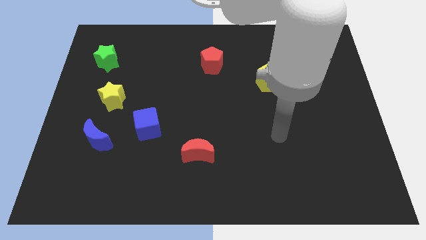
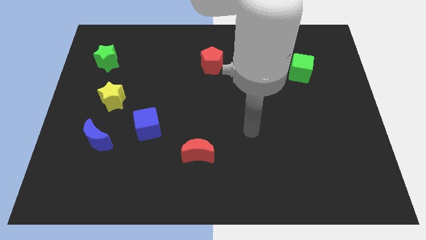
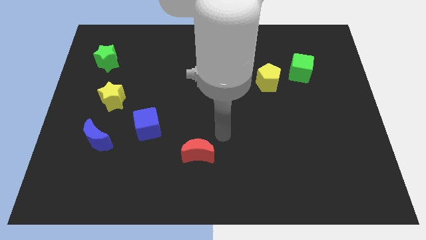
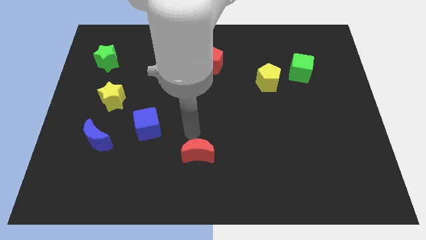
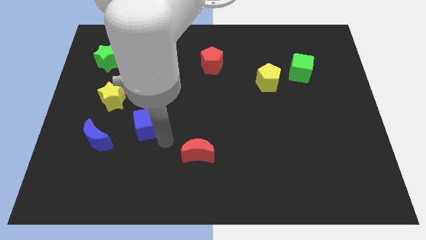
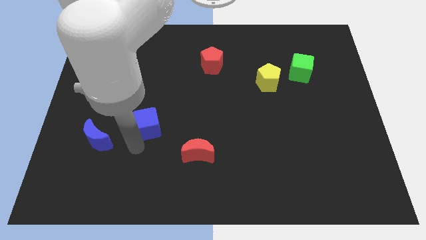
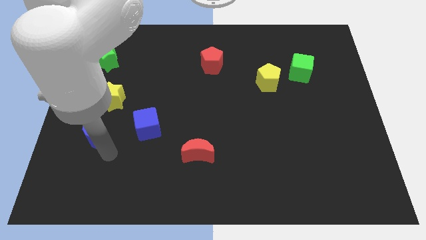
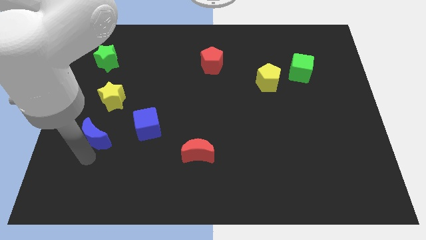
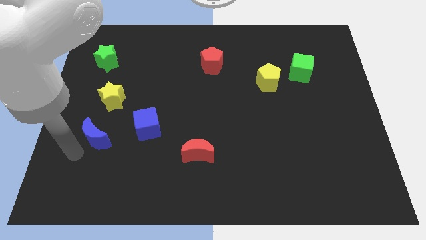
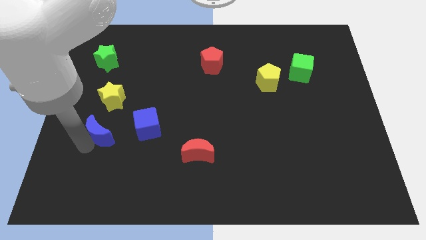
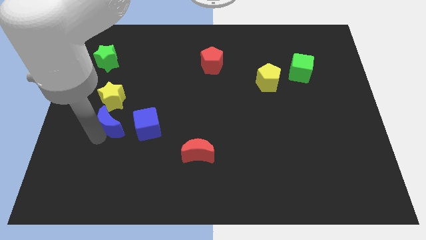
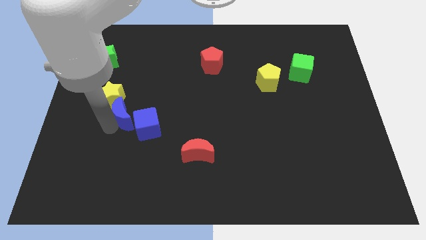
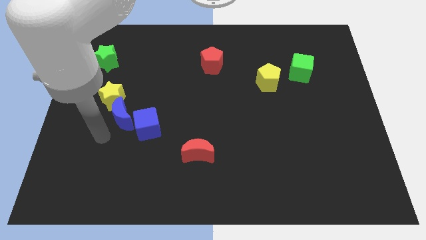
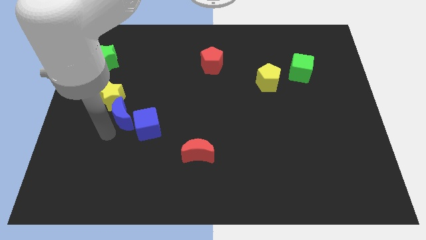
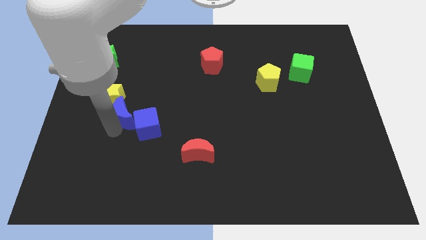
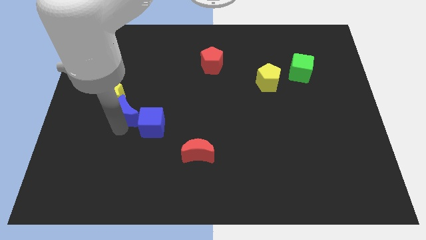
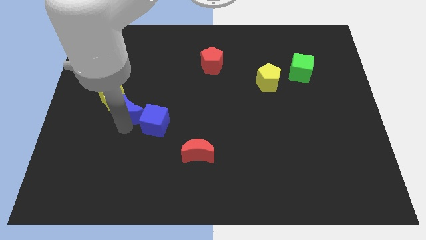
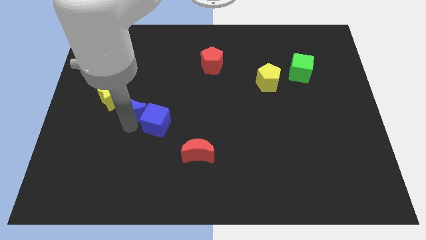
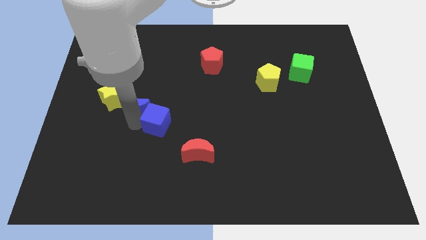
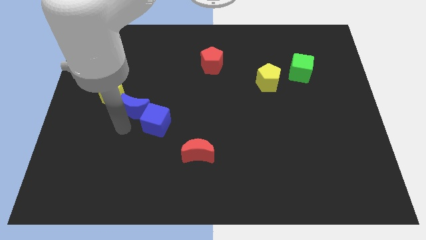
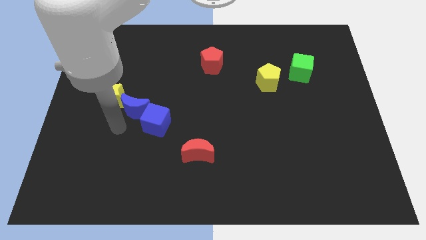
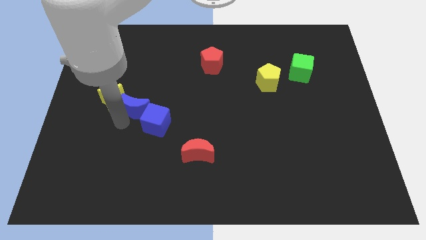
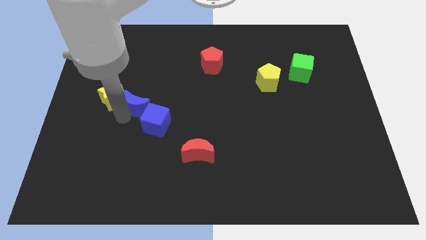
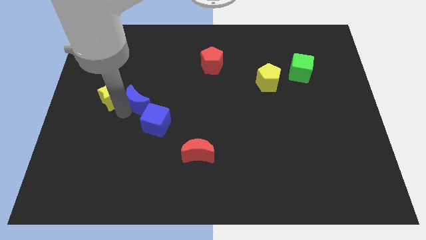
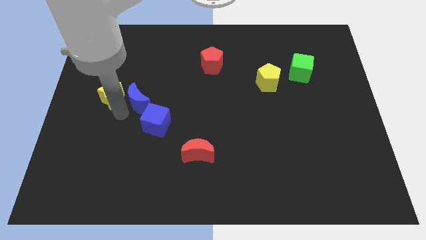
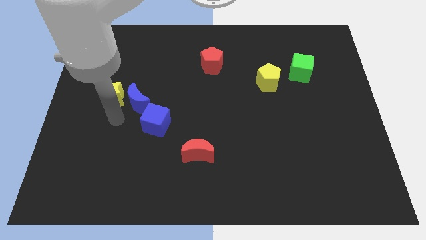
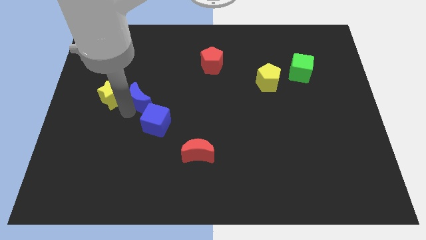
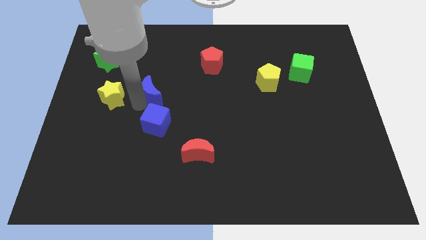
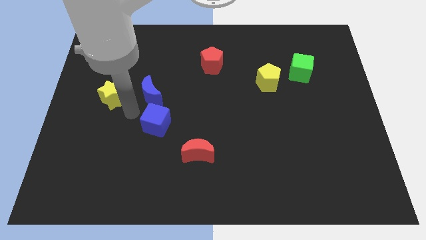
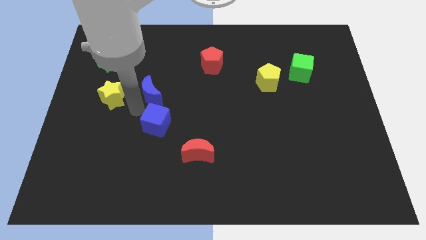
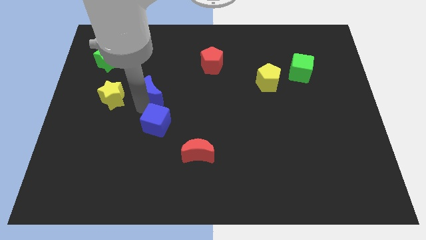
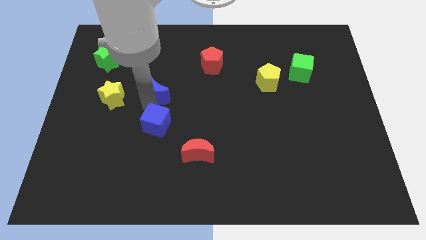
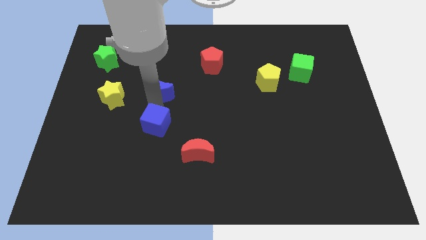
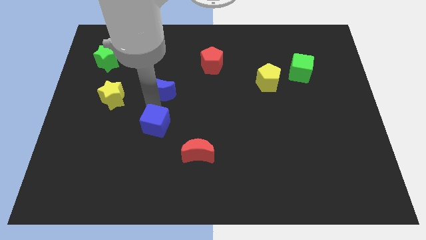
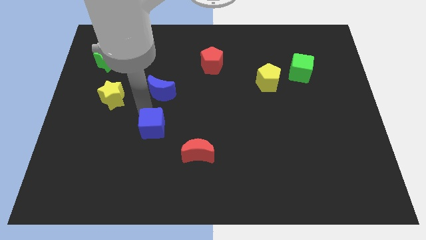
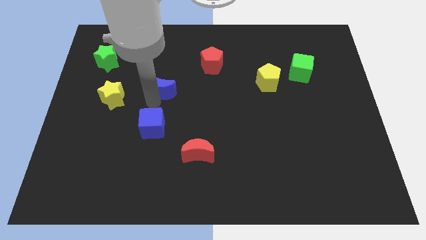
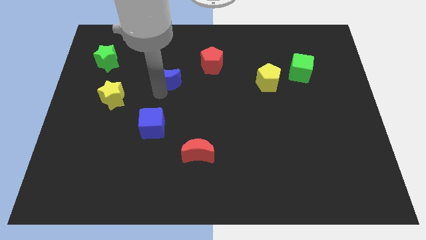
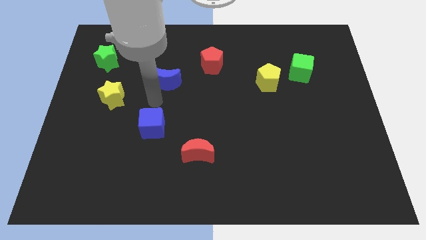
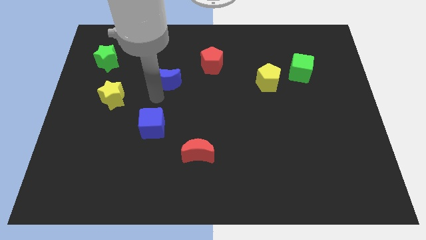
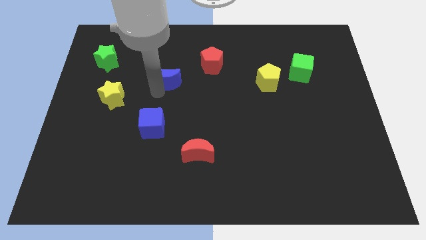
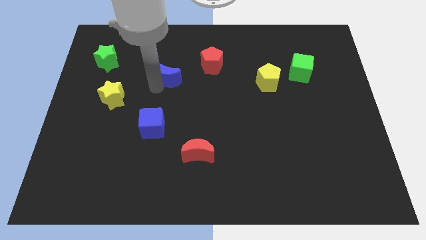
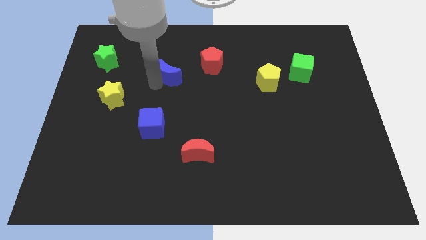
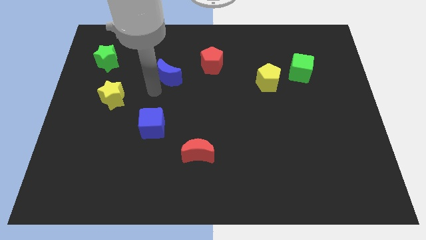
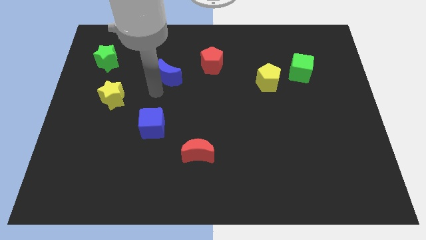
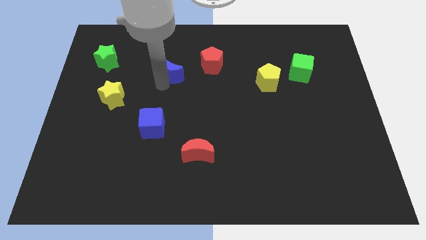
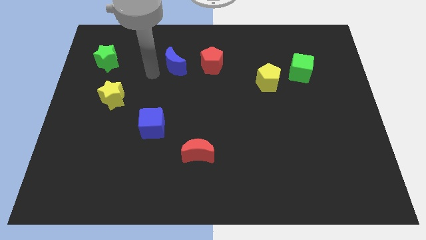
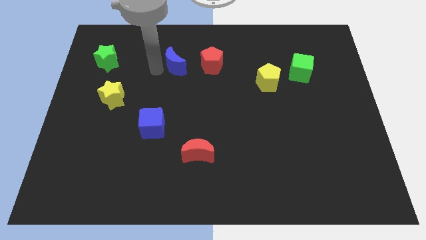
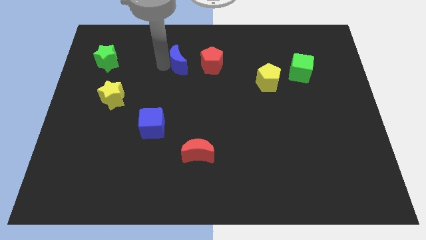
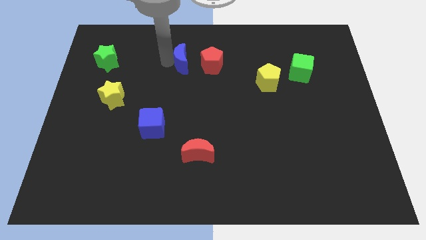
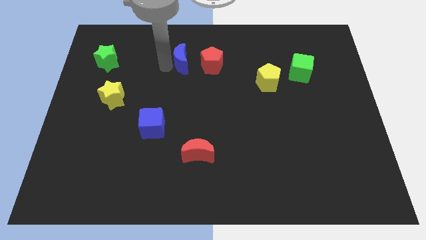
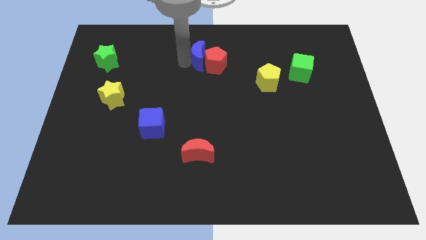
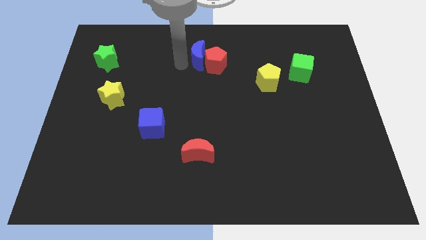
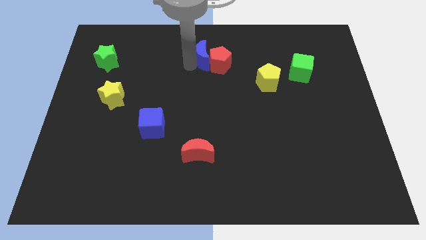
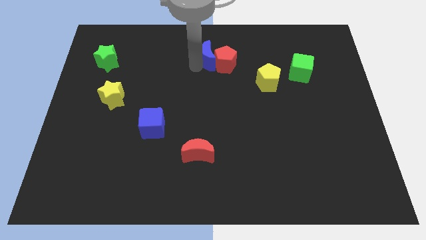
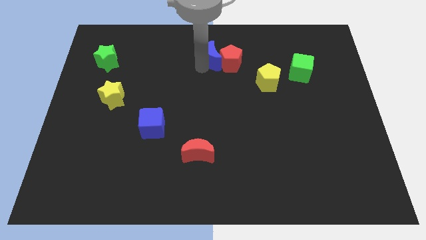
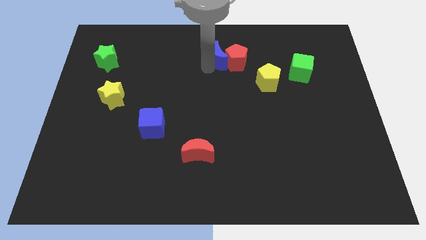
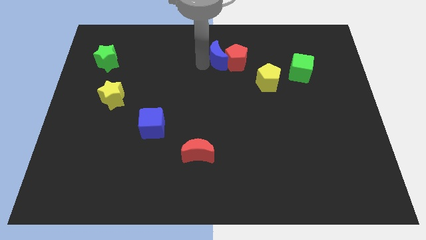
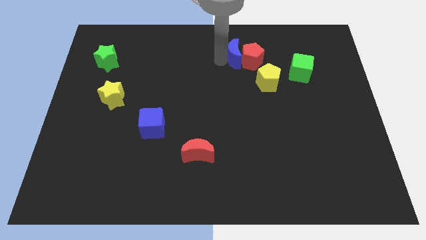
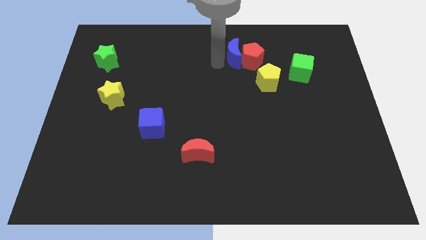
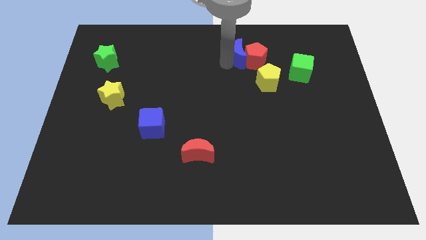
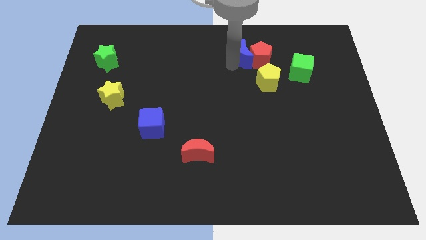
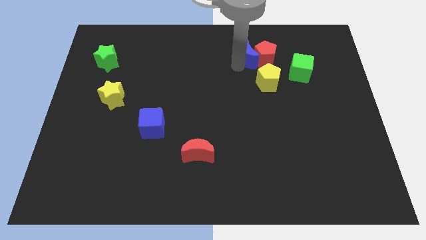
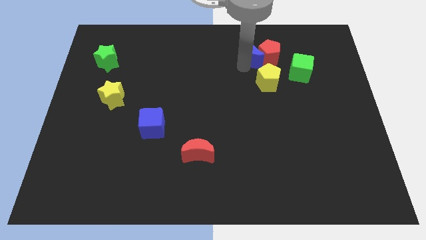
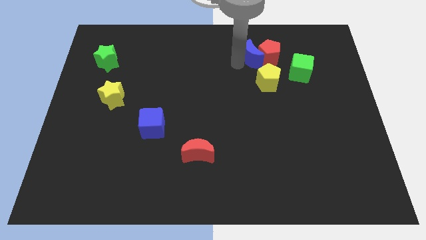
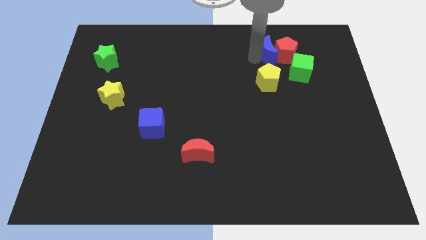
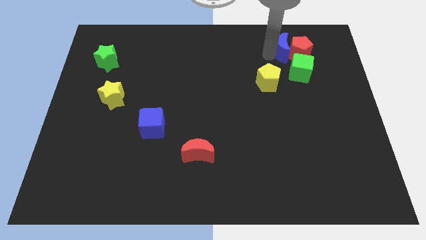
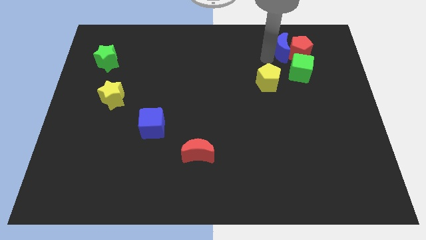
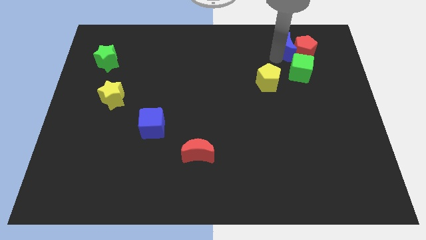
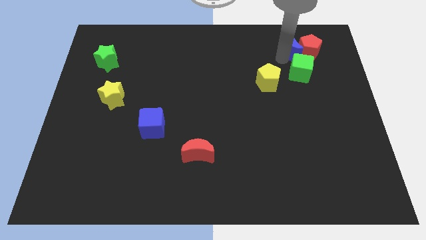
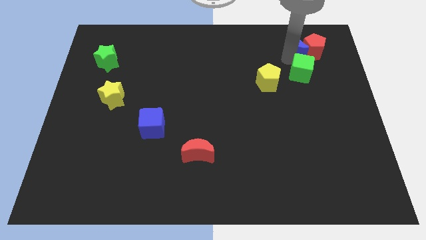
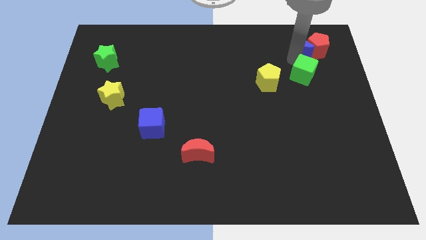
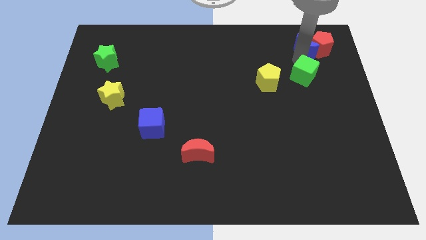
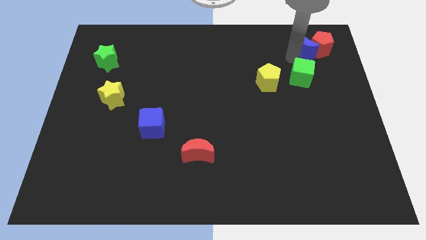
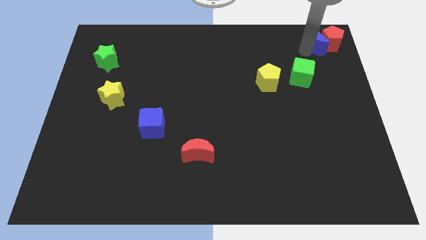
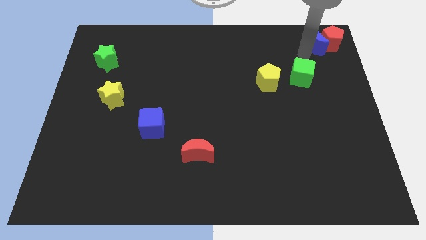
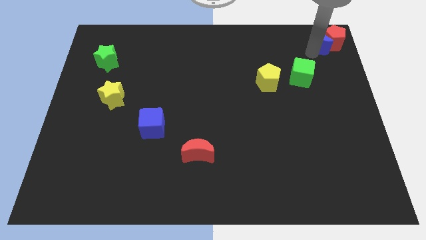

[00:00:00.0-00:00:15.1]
push the blue moon to the top right of the board

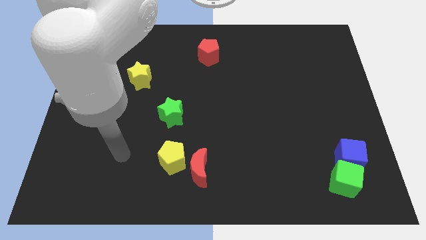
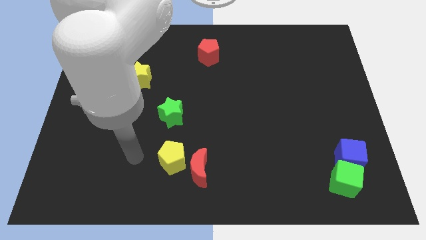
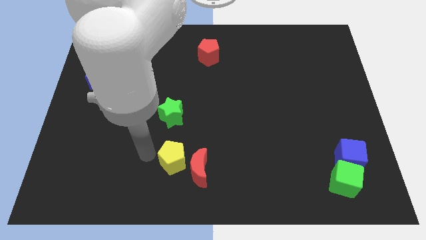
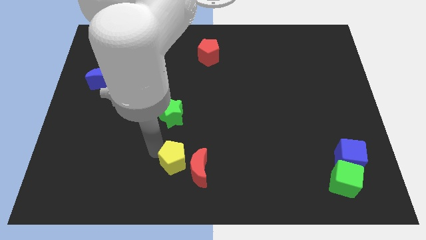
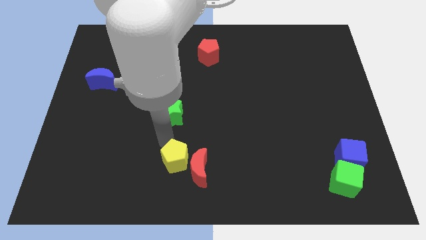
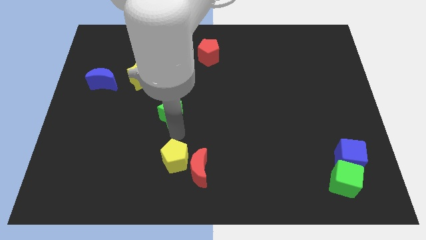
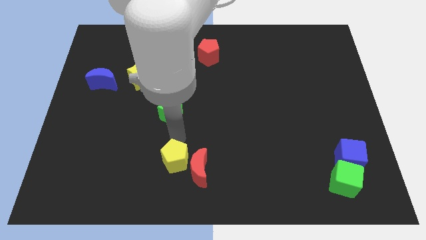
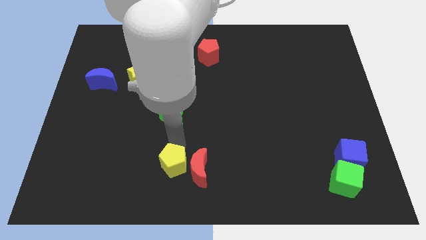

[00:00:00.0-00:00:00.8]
move the yellow pentagon to the bottom
